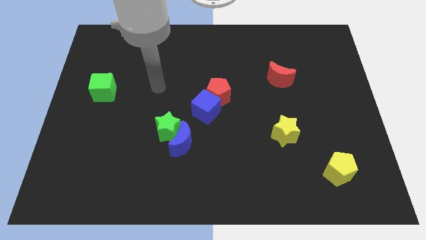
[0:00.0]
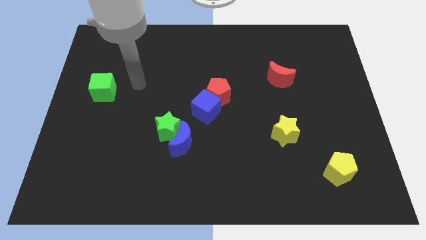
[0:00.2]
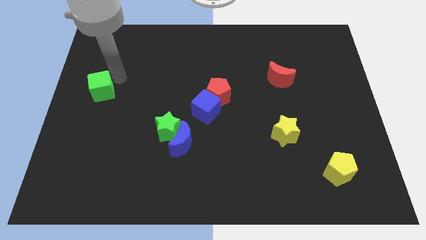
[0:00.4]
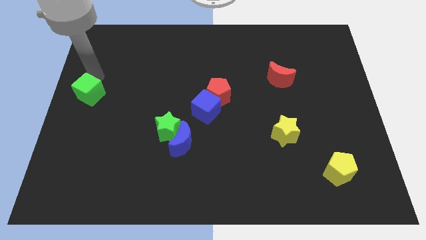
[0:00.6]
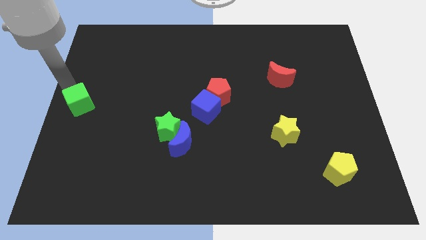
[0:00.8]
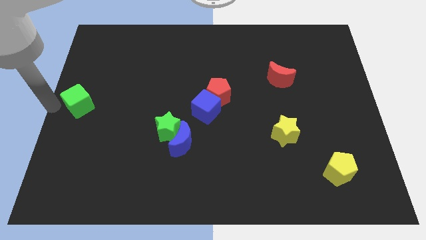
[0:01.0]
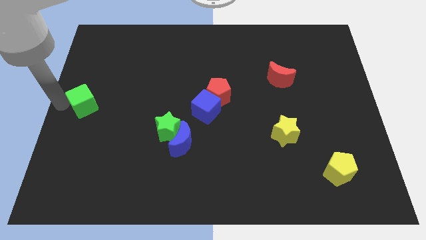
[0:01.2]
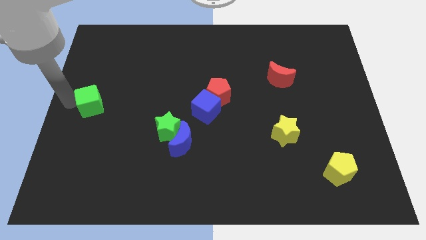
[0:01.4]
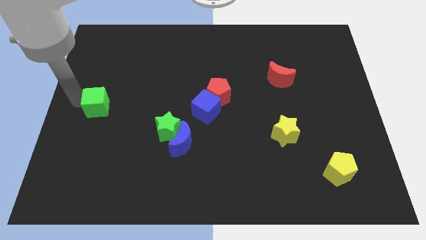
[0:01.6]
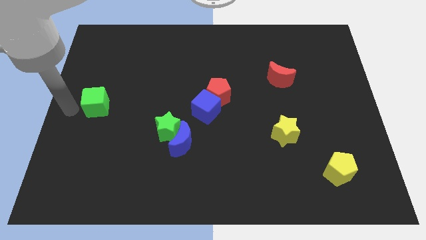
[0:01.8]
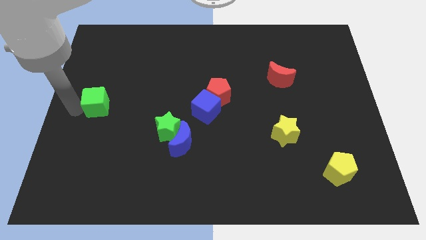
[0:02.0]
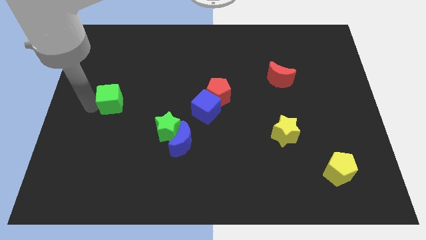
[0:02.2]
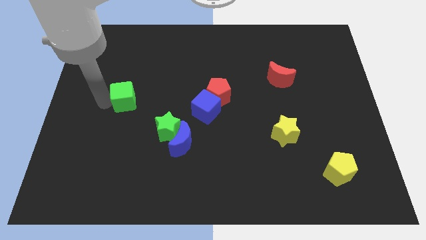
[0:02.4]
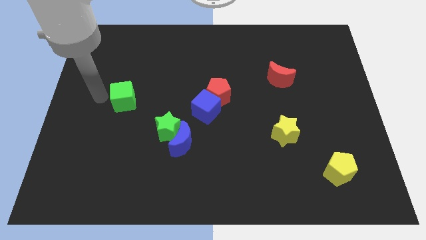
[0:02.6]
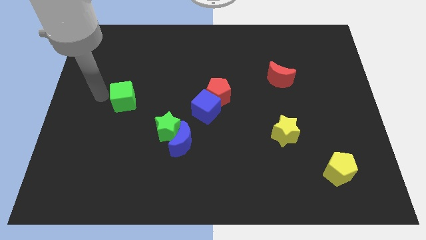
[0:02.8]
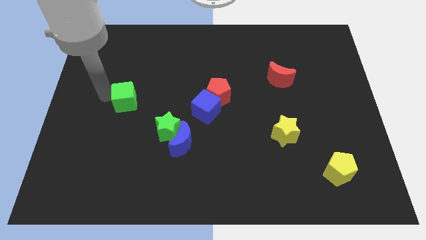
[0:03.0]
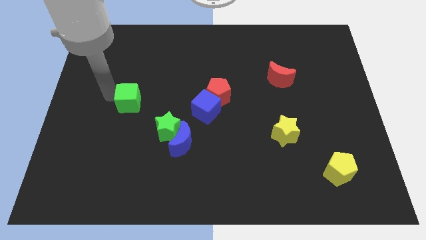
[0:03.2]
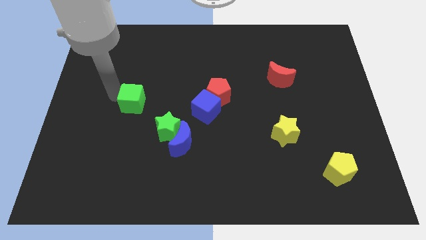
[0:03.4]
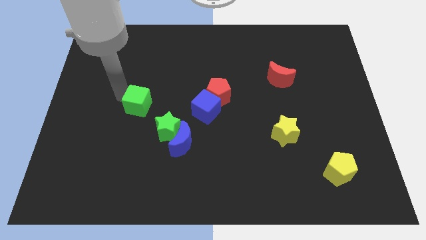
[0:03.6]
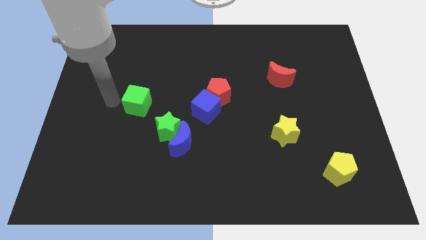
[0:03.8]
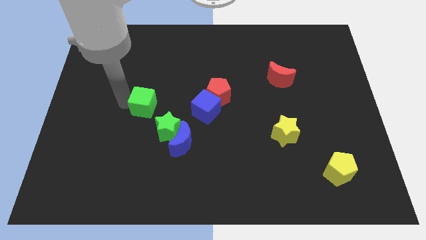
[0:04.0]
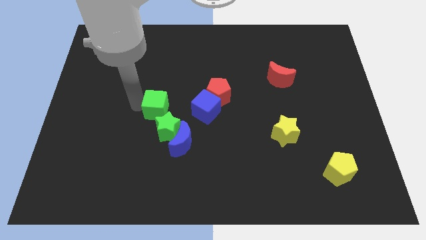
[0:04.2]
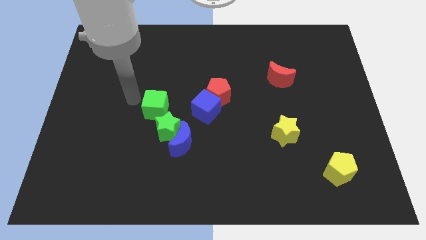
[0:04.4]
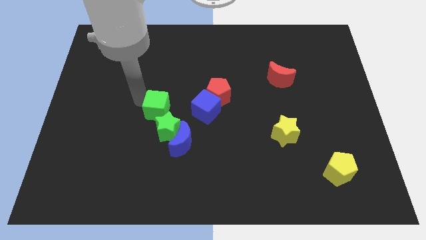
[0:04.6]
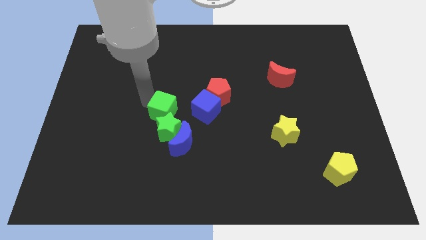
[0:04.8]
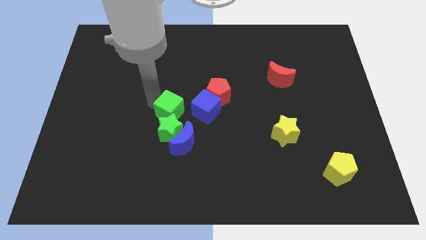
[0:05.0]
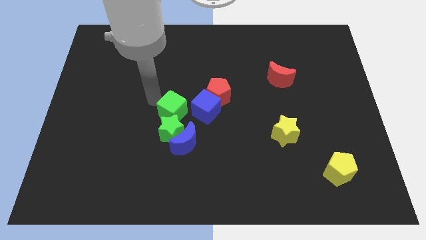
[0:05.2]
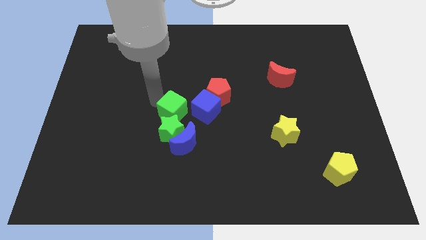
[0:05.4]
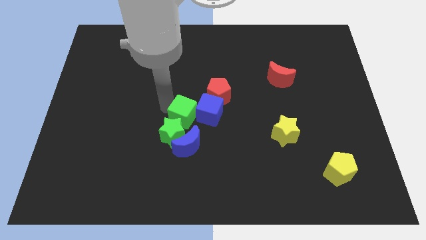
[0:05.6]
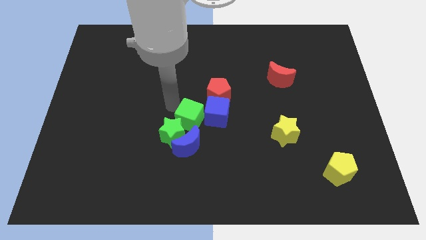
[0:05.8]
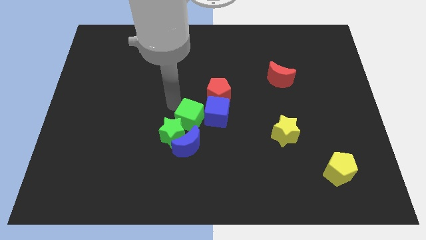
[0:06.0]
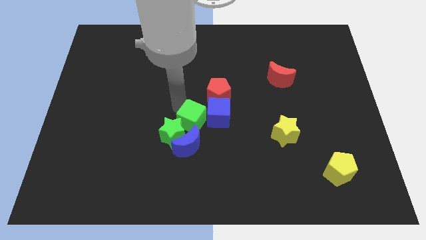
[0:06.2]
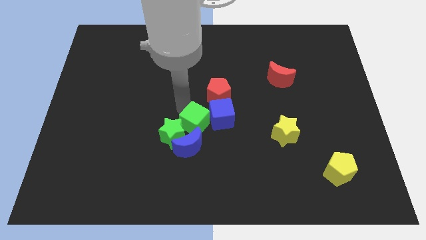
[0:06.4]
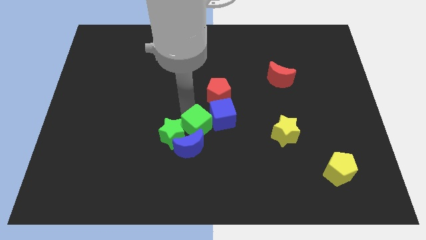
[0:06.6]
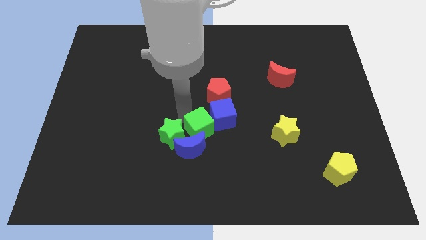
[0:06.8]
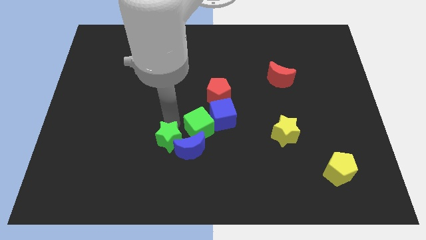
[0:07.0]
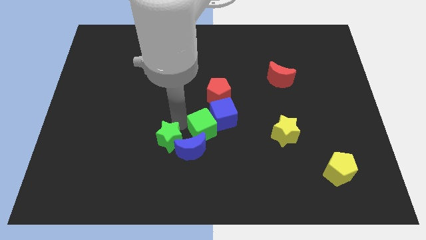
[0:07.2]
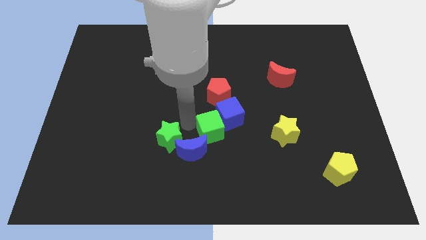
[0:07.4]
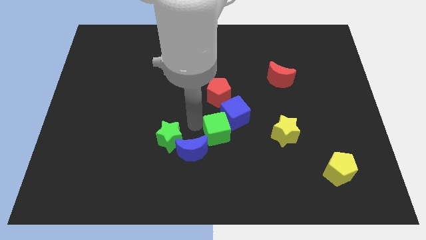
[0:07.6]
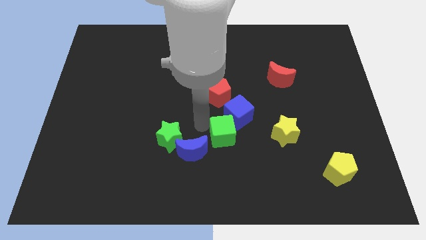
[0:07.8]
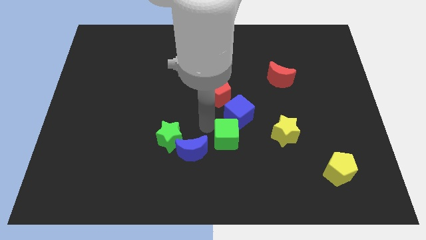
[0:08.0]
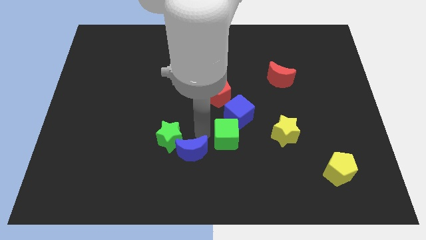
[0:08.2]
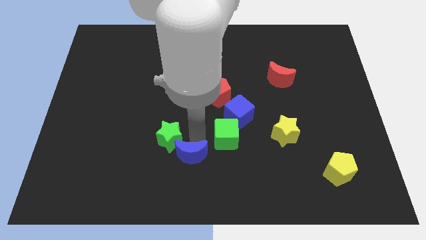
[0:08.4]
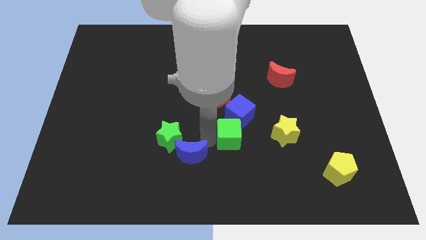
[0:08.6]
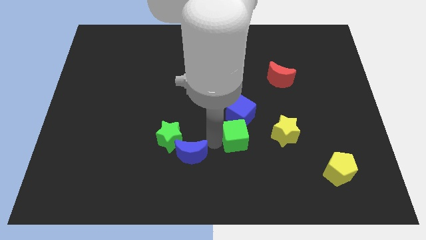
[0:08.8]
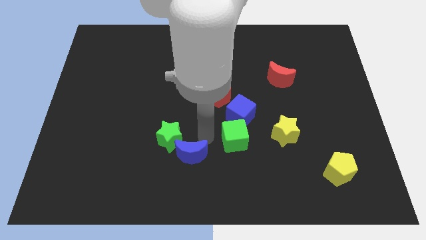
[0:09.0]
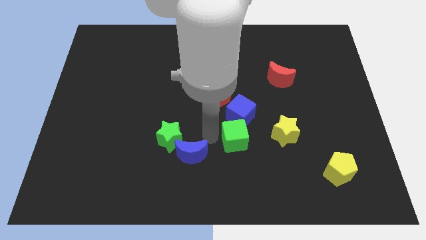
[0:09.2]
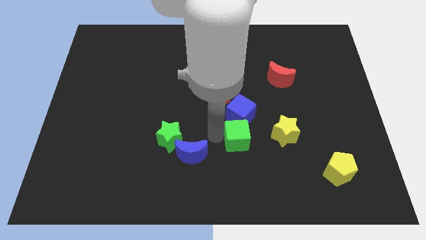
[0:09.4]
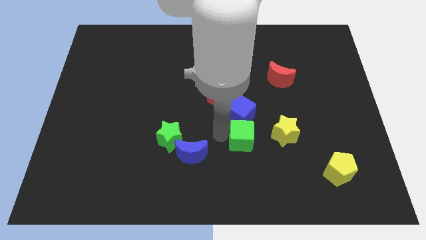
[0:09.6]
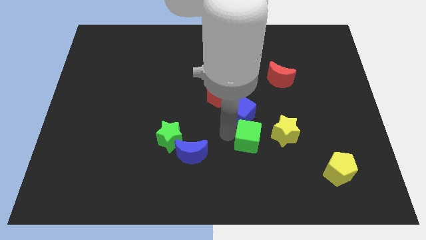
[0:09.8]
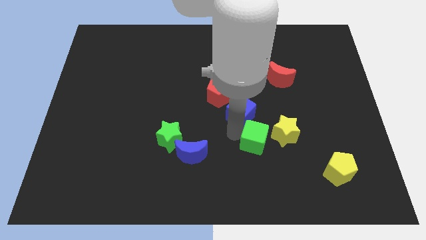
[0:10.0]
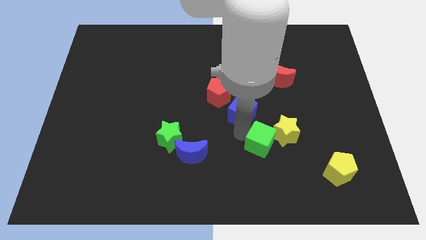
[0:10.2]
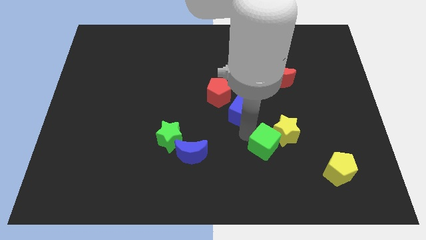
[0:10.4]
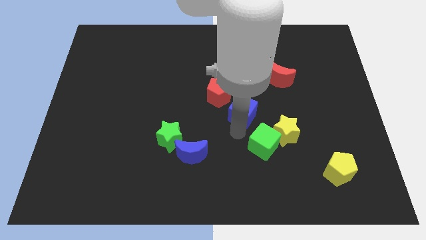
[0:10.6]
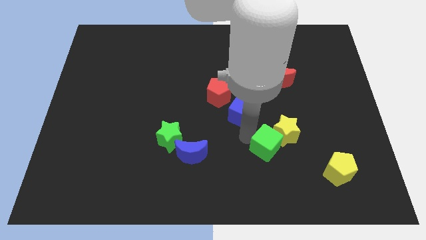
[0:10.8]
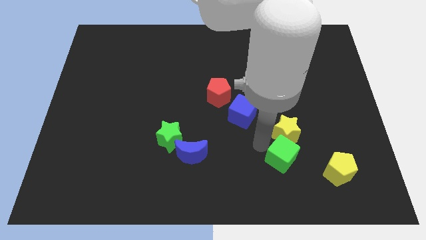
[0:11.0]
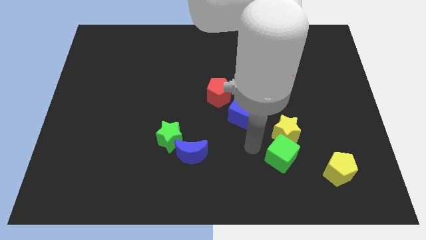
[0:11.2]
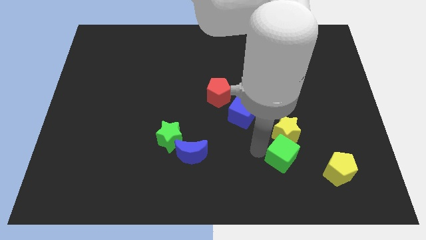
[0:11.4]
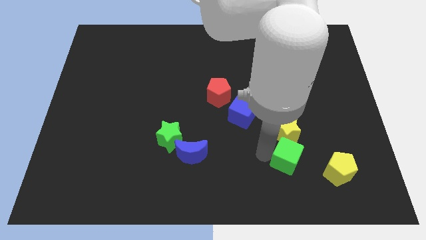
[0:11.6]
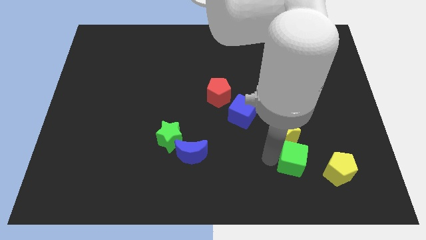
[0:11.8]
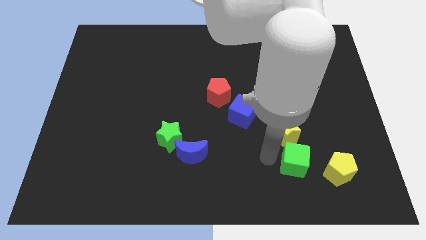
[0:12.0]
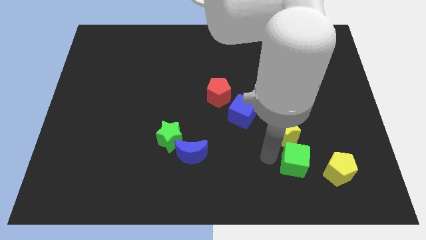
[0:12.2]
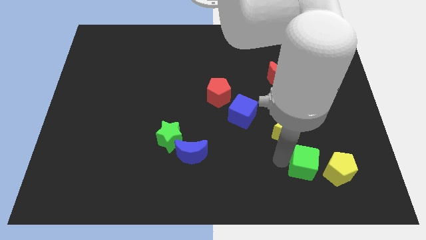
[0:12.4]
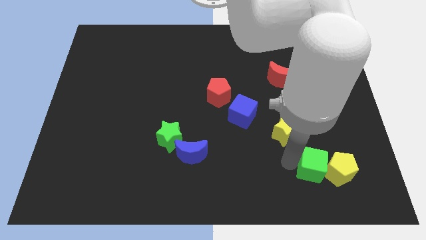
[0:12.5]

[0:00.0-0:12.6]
push the green cube close to the yellow pentagon
